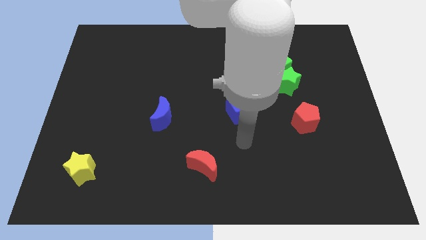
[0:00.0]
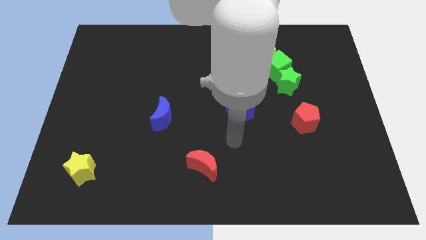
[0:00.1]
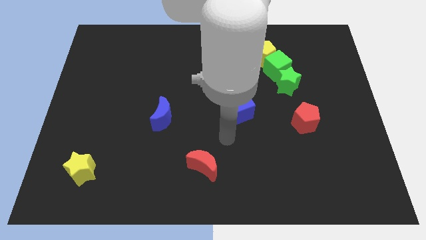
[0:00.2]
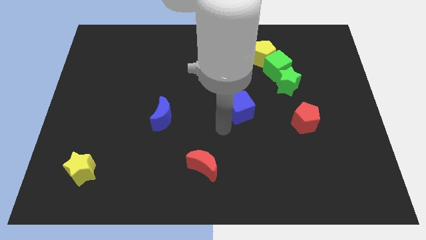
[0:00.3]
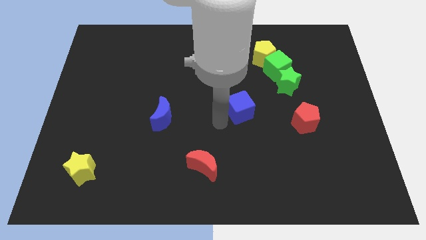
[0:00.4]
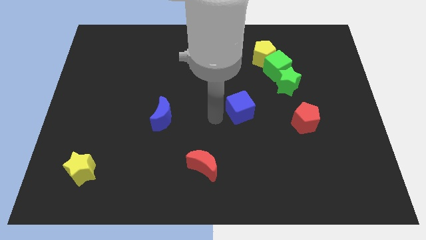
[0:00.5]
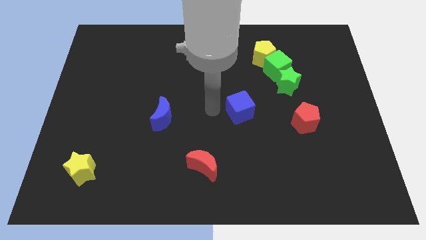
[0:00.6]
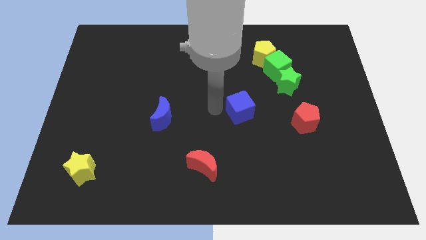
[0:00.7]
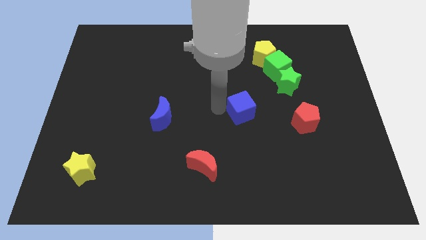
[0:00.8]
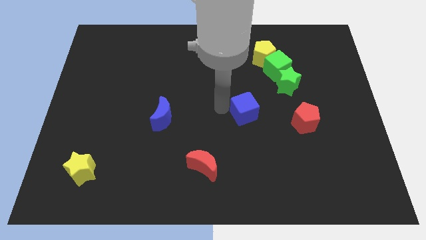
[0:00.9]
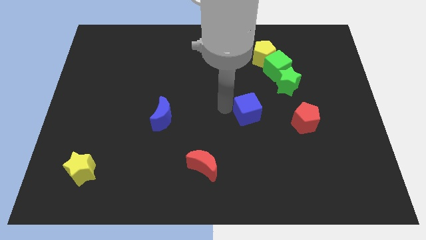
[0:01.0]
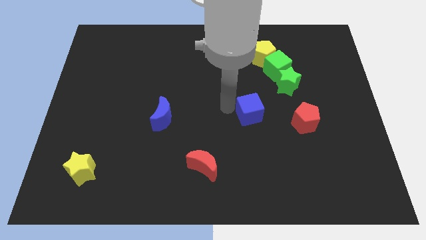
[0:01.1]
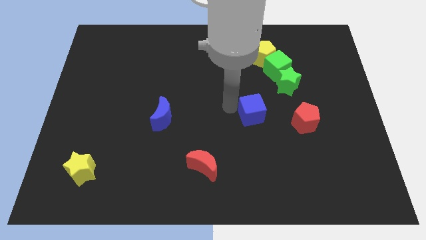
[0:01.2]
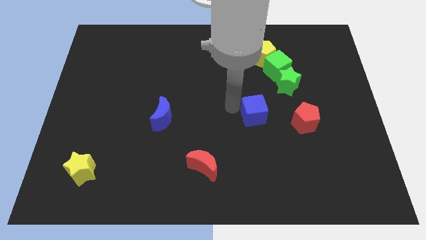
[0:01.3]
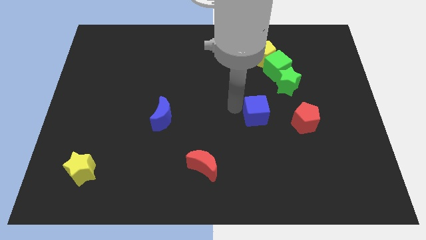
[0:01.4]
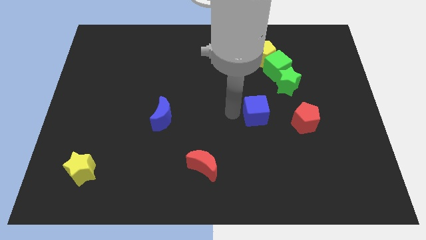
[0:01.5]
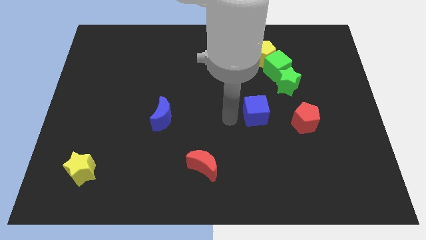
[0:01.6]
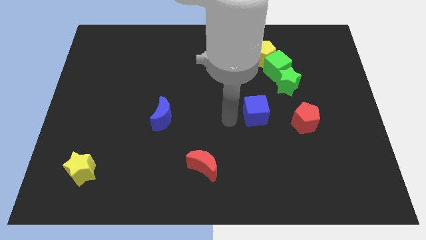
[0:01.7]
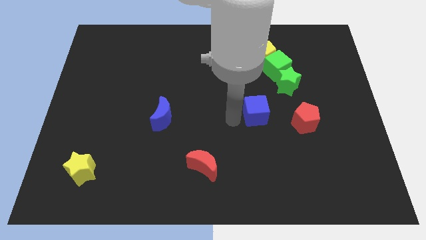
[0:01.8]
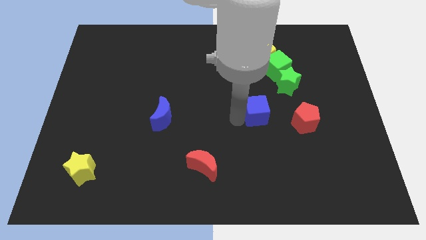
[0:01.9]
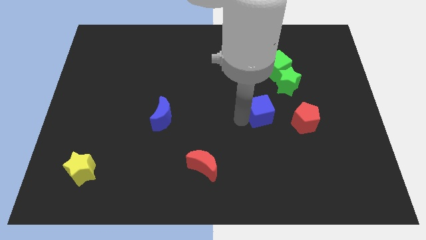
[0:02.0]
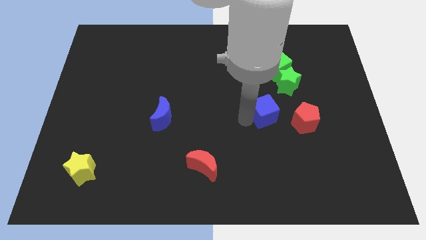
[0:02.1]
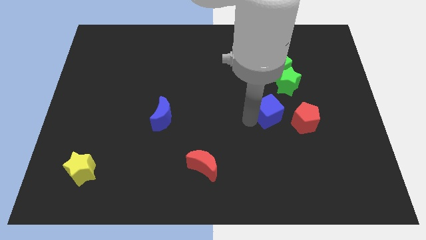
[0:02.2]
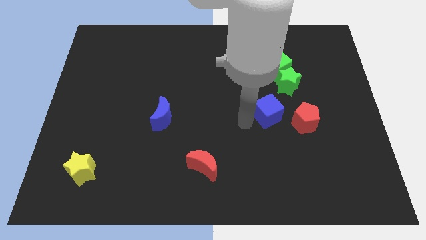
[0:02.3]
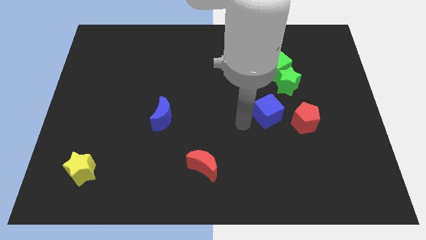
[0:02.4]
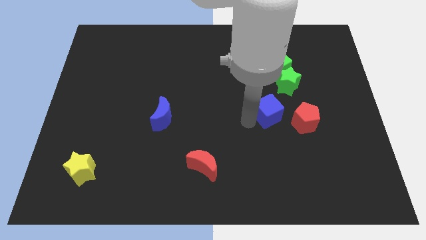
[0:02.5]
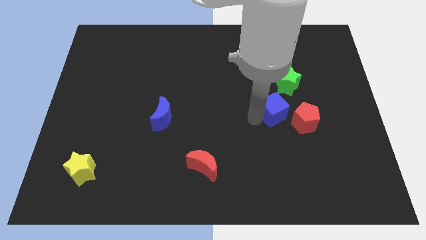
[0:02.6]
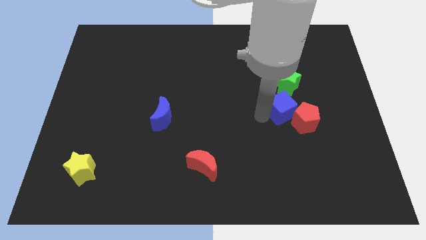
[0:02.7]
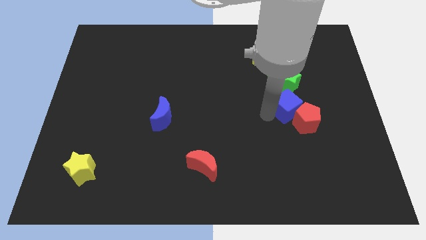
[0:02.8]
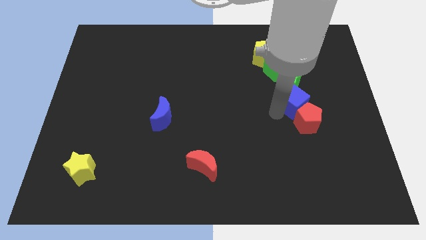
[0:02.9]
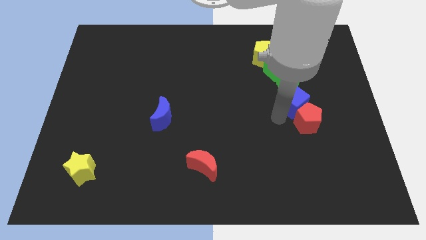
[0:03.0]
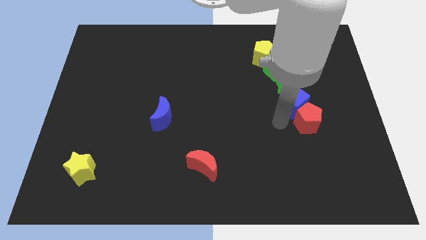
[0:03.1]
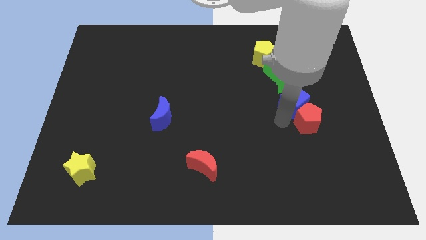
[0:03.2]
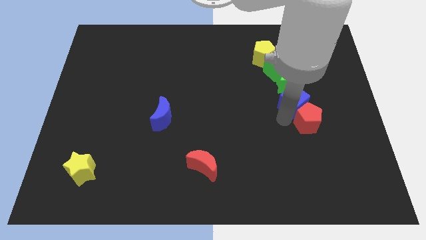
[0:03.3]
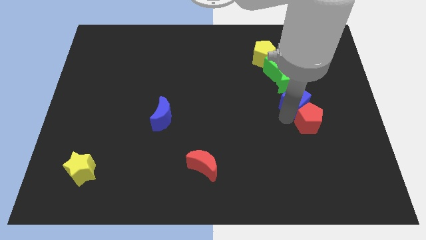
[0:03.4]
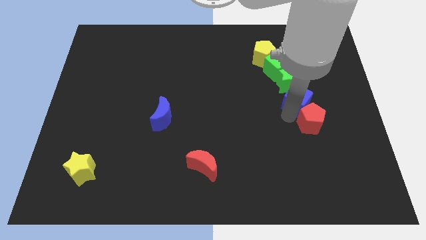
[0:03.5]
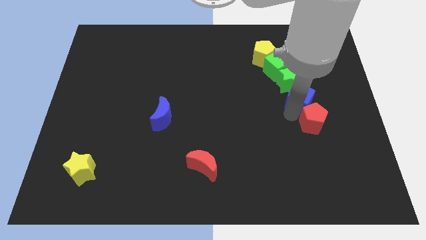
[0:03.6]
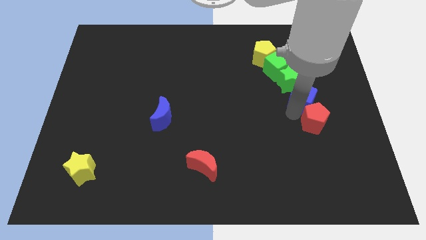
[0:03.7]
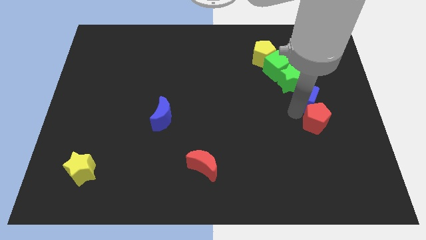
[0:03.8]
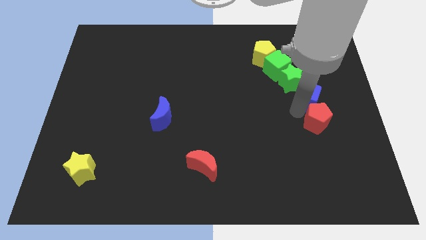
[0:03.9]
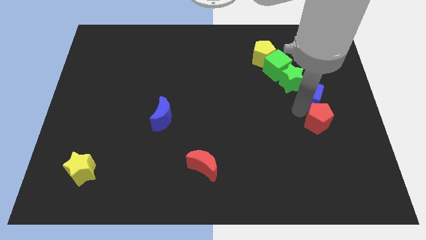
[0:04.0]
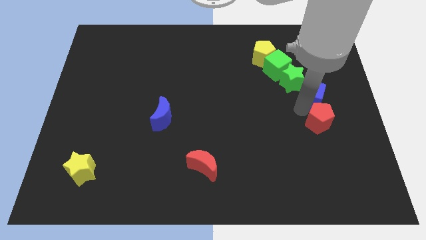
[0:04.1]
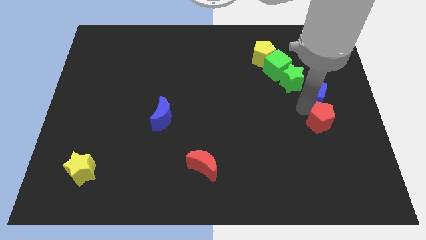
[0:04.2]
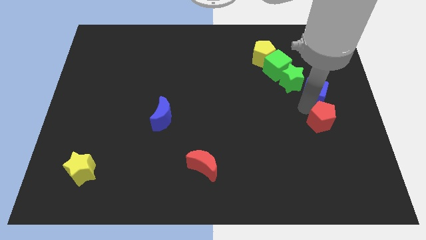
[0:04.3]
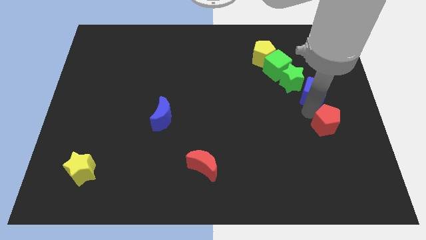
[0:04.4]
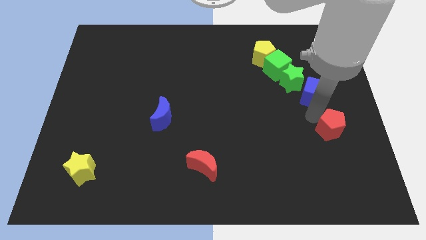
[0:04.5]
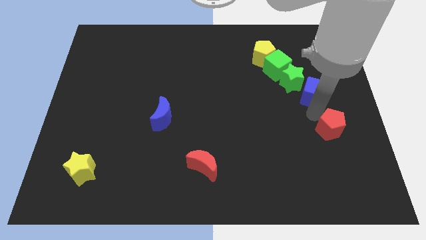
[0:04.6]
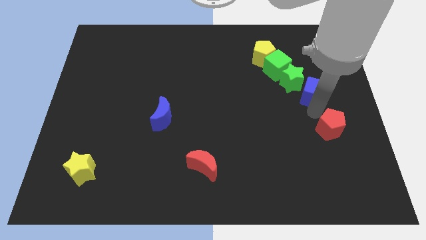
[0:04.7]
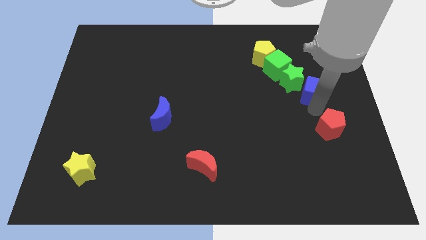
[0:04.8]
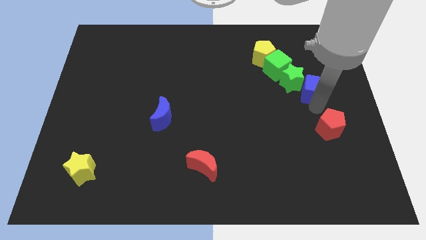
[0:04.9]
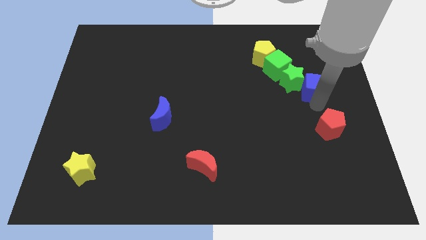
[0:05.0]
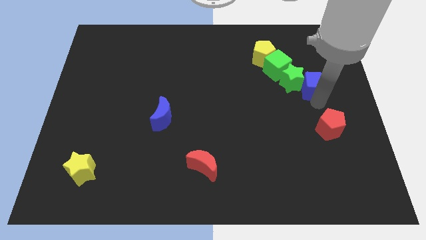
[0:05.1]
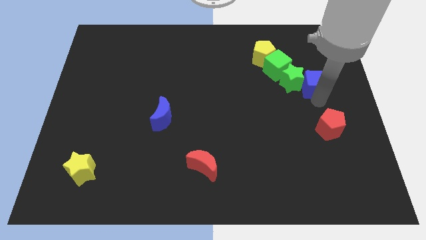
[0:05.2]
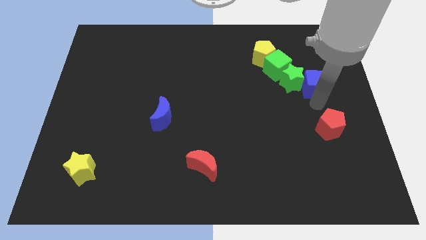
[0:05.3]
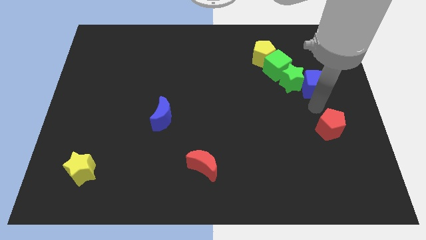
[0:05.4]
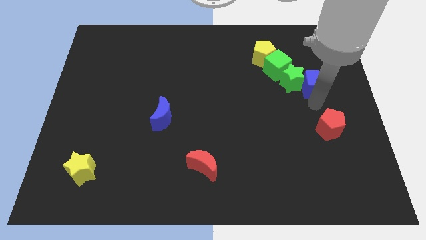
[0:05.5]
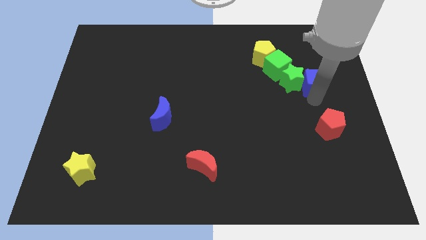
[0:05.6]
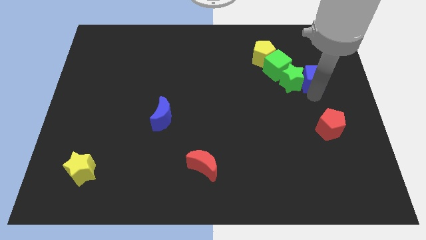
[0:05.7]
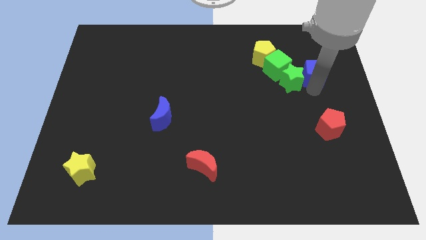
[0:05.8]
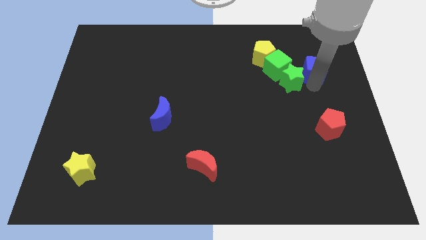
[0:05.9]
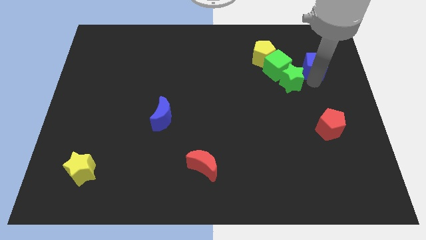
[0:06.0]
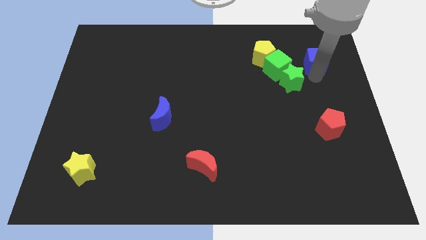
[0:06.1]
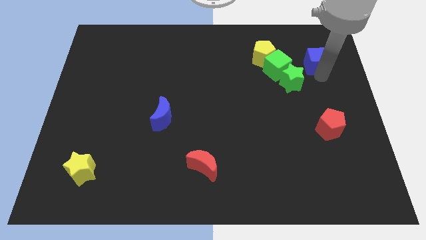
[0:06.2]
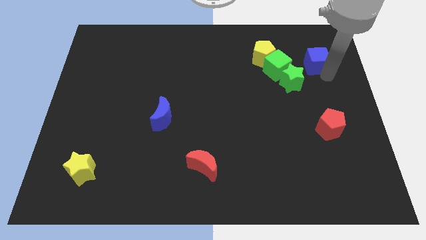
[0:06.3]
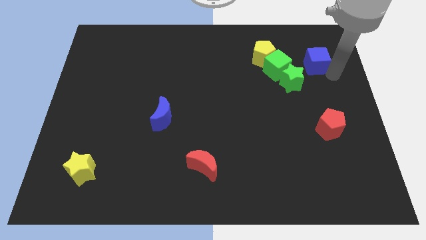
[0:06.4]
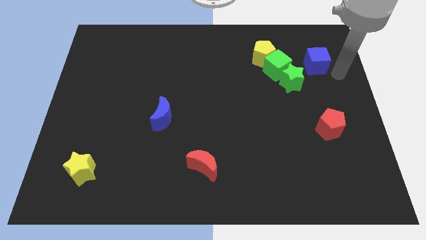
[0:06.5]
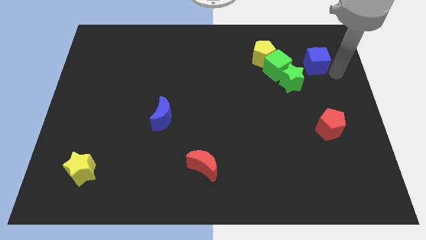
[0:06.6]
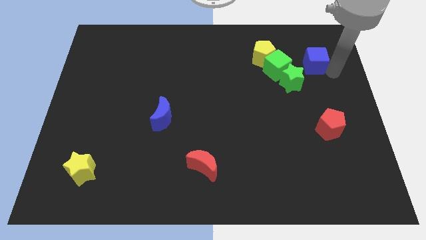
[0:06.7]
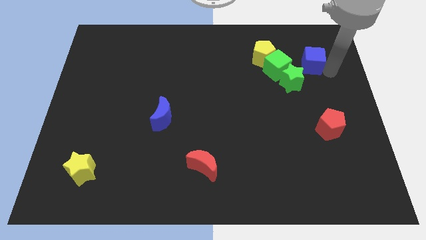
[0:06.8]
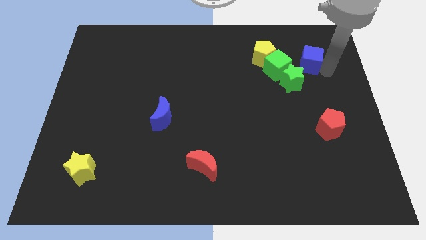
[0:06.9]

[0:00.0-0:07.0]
slide the blue cube diagonally up and to the right of the green cube
